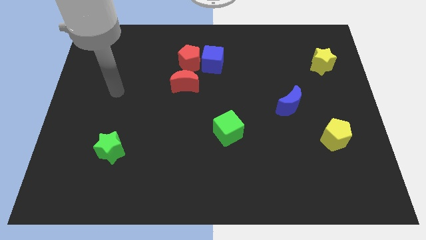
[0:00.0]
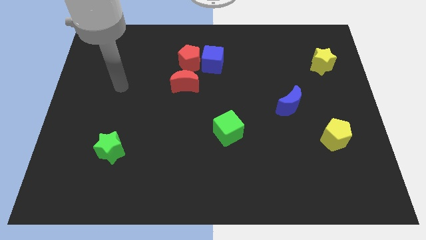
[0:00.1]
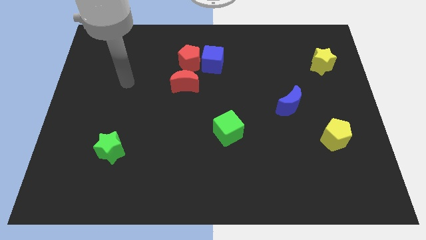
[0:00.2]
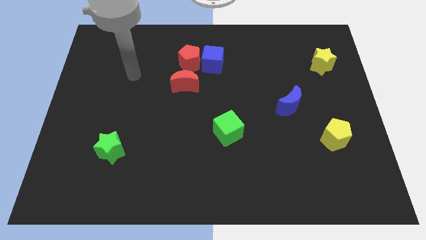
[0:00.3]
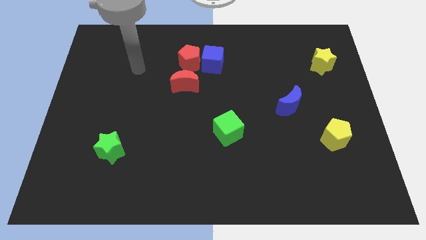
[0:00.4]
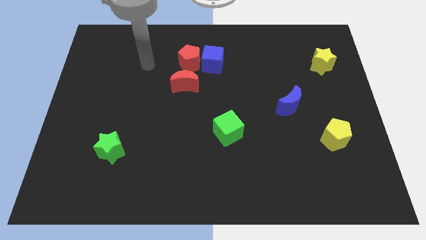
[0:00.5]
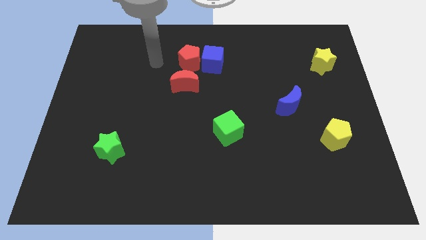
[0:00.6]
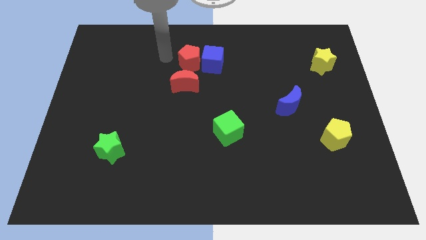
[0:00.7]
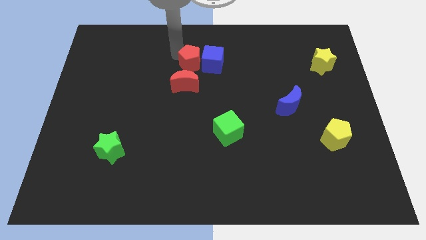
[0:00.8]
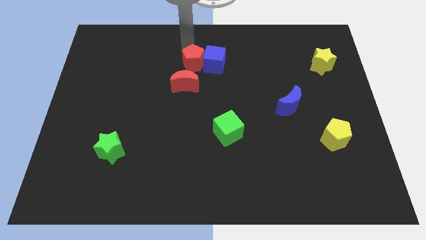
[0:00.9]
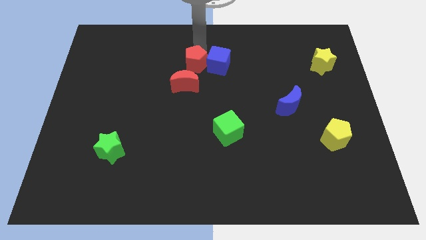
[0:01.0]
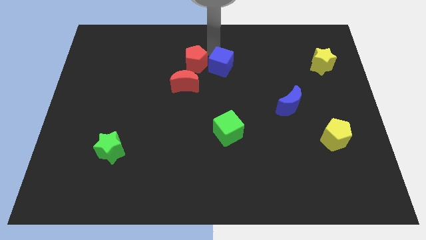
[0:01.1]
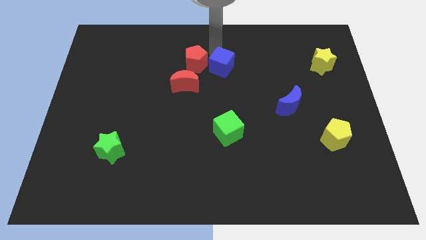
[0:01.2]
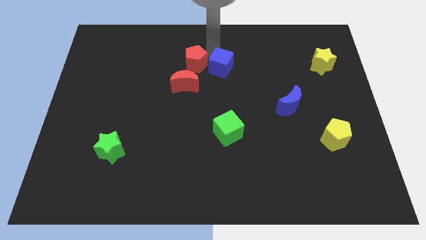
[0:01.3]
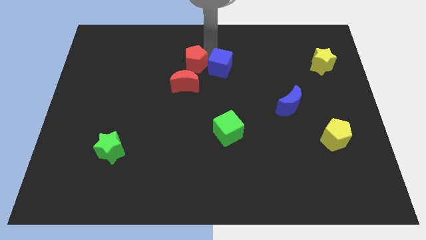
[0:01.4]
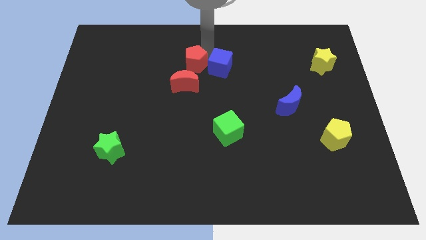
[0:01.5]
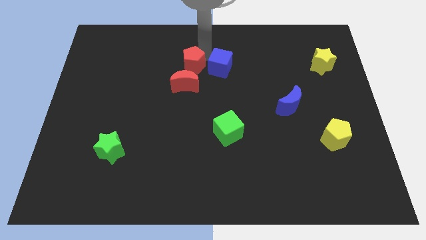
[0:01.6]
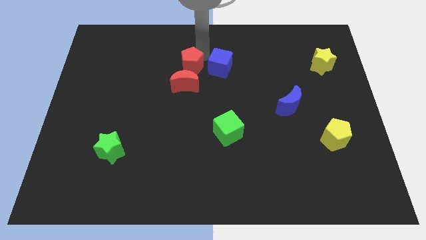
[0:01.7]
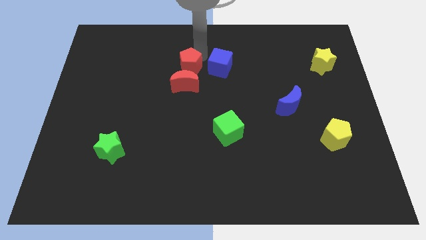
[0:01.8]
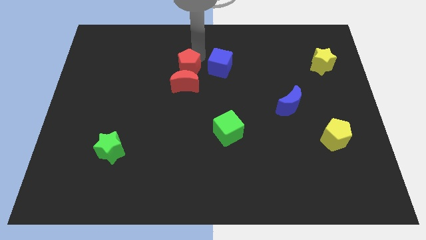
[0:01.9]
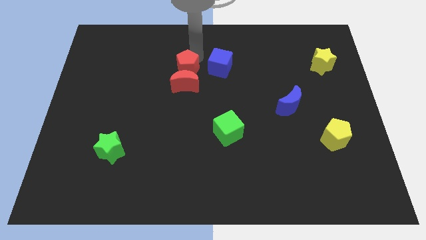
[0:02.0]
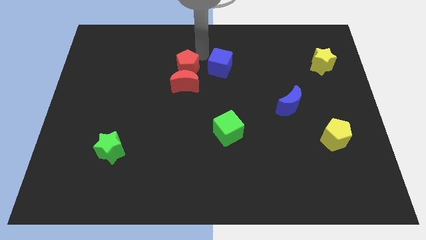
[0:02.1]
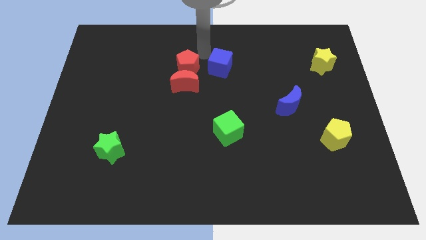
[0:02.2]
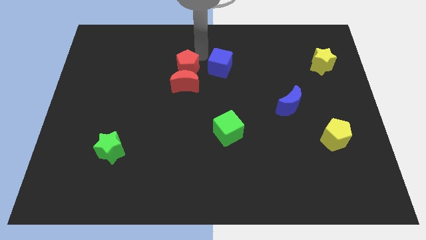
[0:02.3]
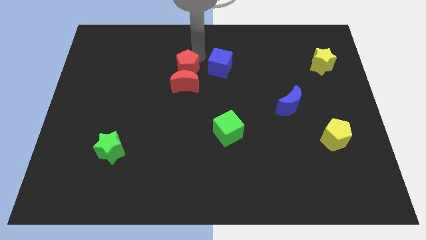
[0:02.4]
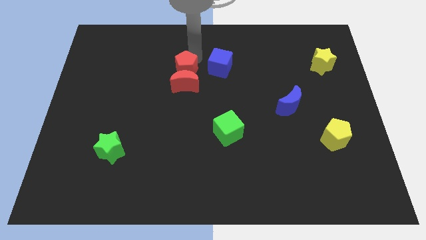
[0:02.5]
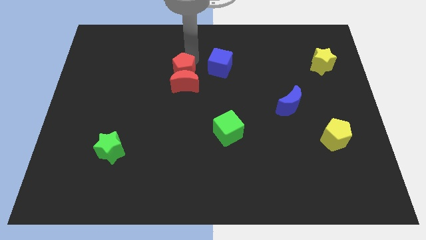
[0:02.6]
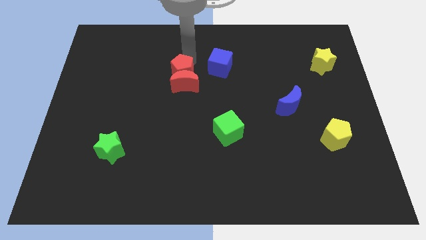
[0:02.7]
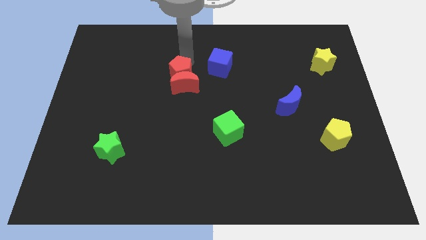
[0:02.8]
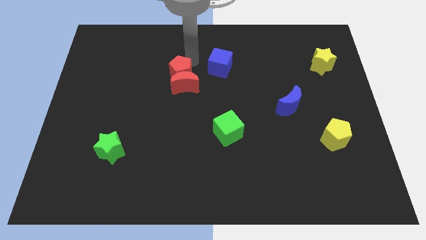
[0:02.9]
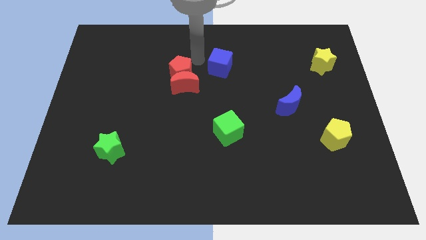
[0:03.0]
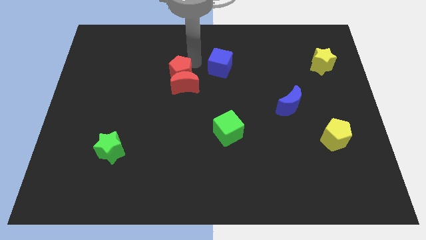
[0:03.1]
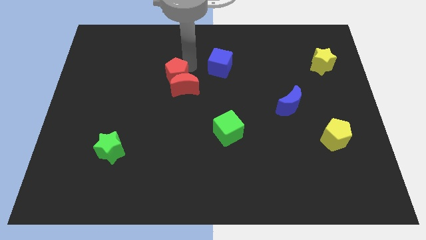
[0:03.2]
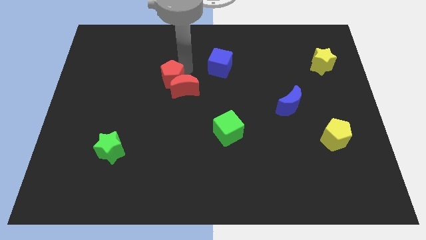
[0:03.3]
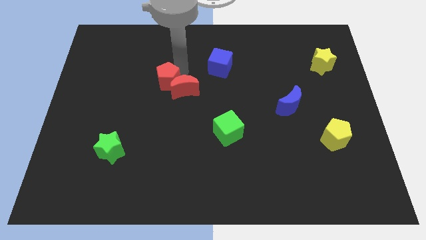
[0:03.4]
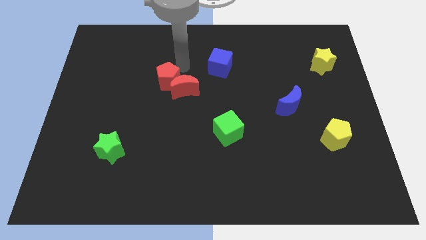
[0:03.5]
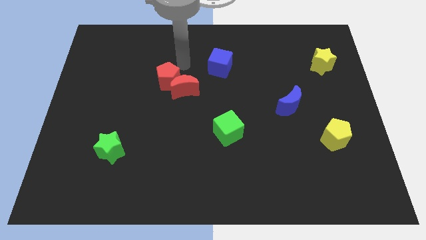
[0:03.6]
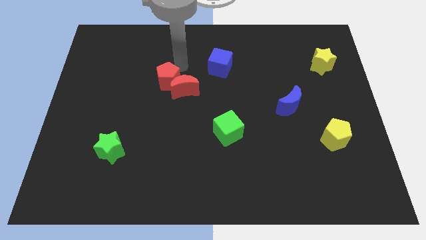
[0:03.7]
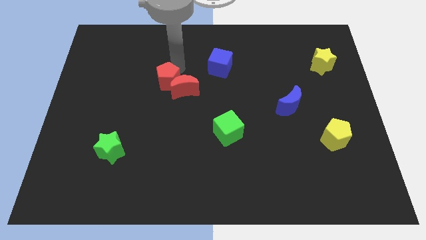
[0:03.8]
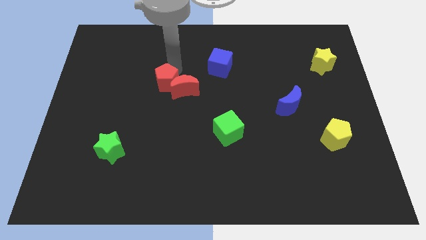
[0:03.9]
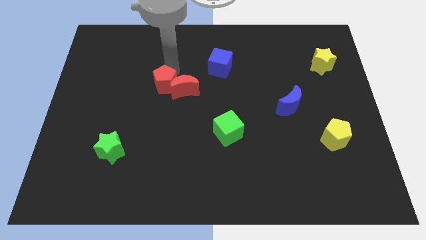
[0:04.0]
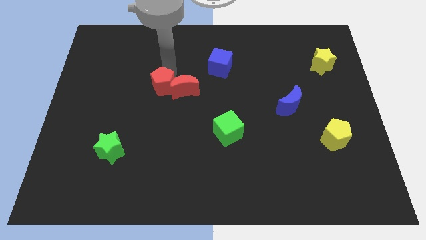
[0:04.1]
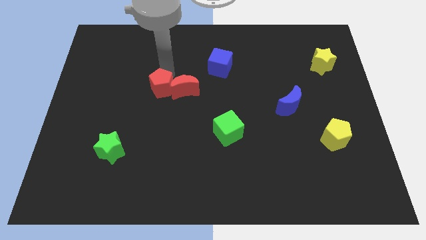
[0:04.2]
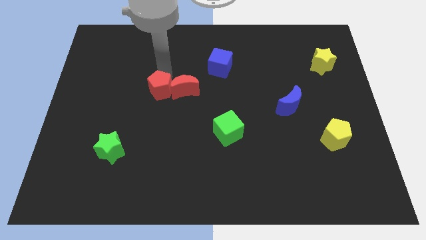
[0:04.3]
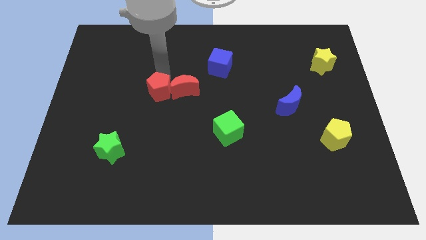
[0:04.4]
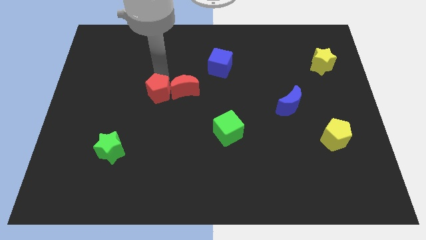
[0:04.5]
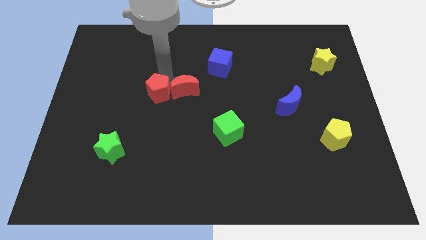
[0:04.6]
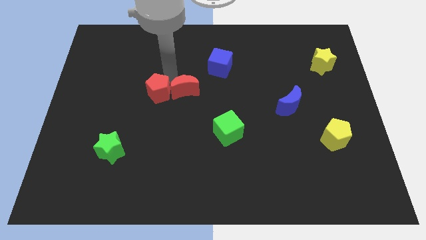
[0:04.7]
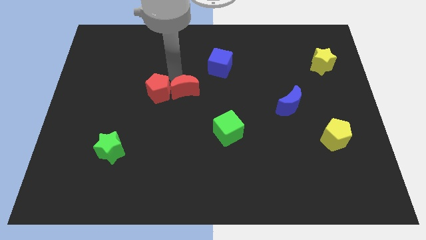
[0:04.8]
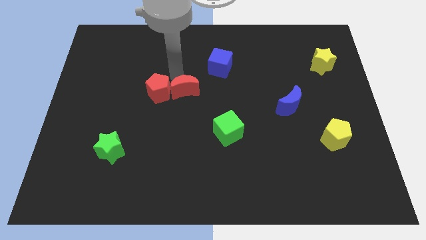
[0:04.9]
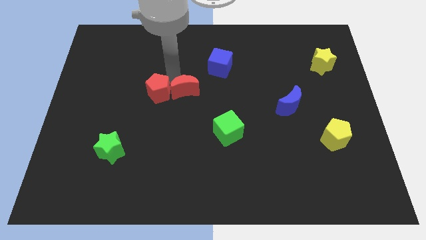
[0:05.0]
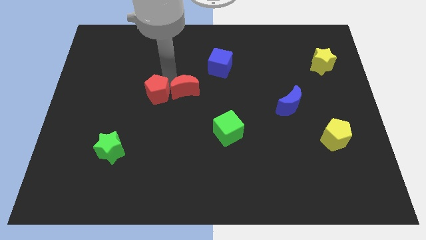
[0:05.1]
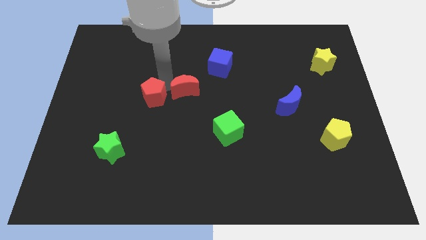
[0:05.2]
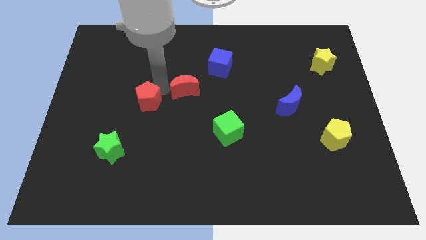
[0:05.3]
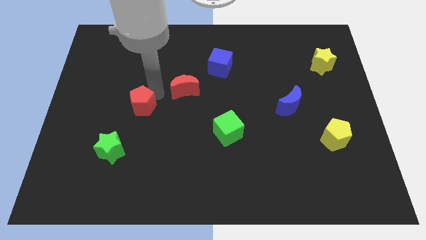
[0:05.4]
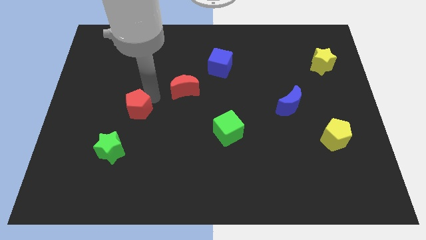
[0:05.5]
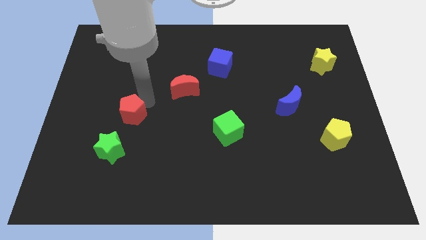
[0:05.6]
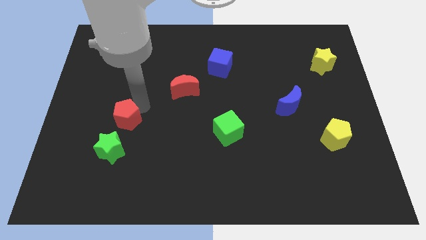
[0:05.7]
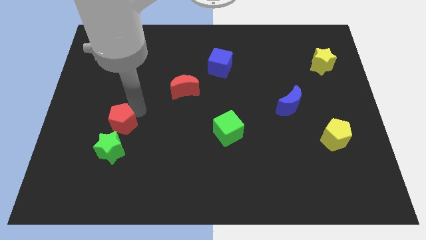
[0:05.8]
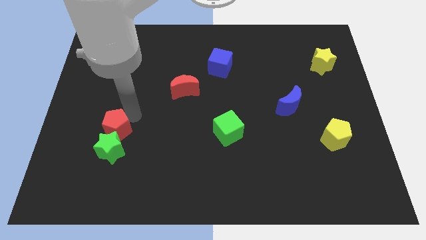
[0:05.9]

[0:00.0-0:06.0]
move the red pentagon diagonally up and to the left of the green star

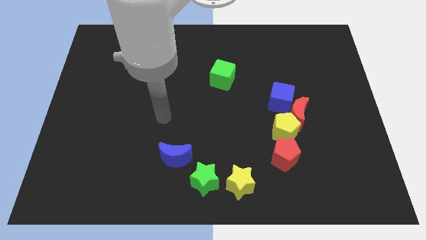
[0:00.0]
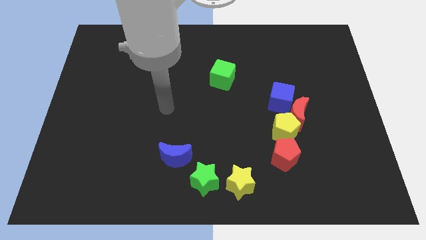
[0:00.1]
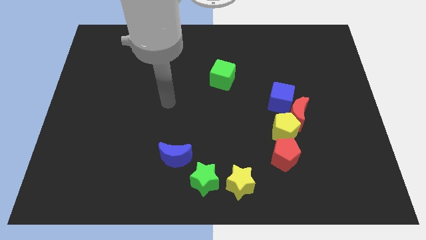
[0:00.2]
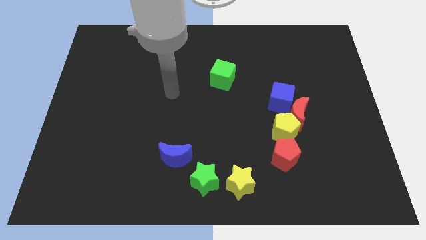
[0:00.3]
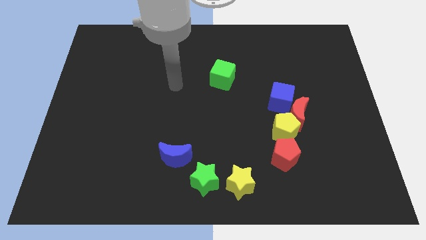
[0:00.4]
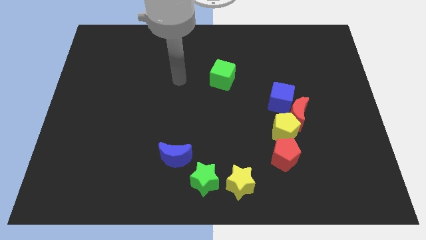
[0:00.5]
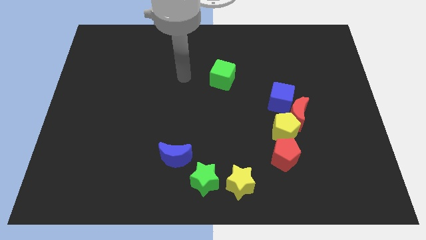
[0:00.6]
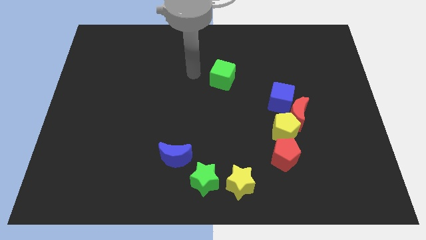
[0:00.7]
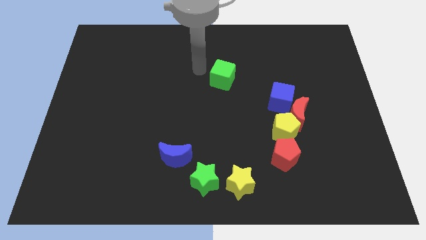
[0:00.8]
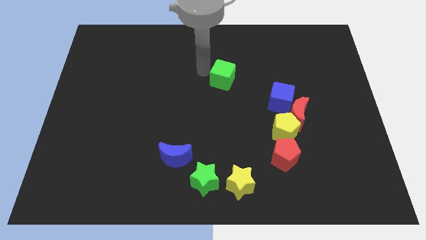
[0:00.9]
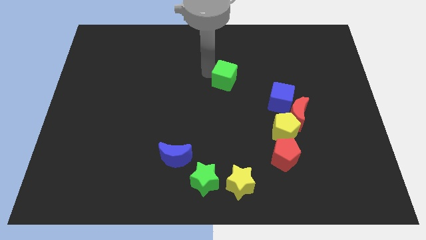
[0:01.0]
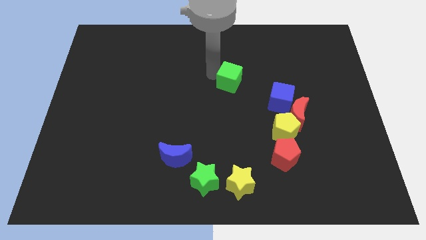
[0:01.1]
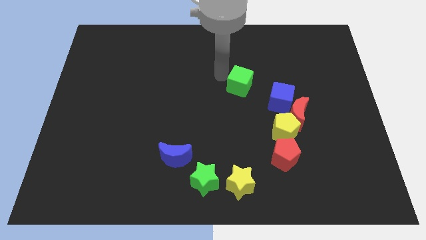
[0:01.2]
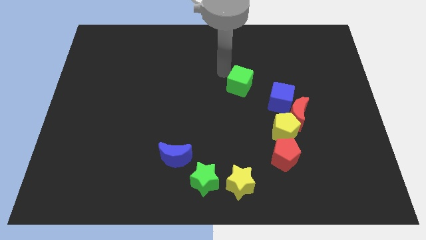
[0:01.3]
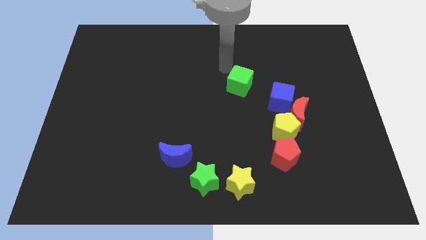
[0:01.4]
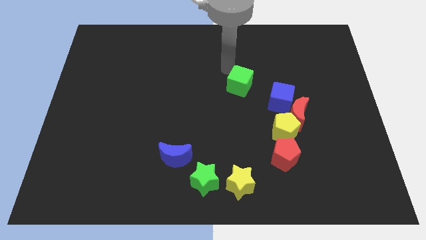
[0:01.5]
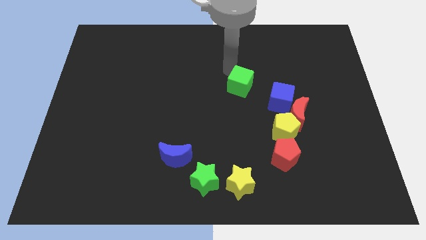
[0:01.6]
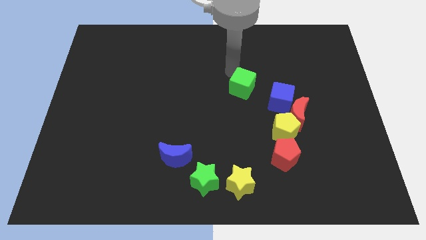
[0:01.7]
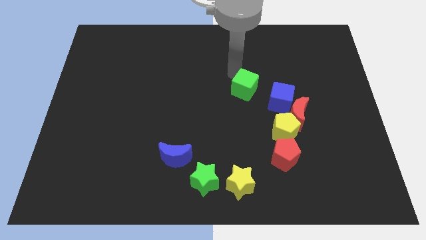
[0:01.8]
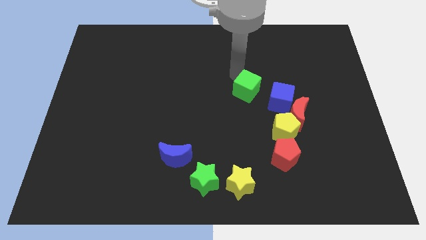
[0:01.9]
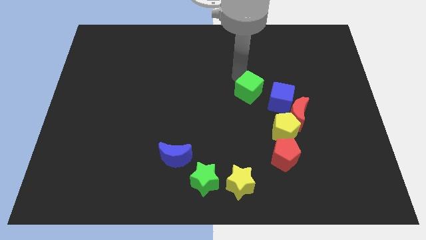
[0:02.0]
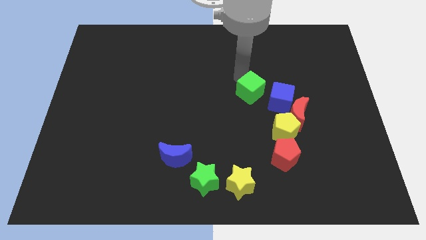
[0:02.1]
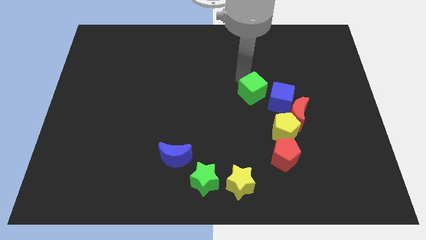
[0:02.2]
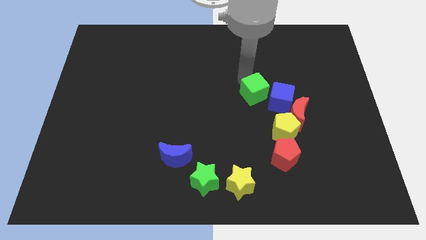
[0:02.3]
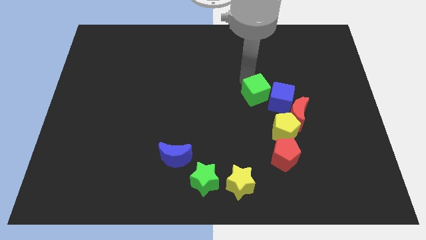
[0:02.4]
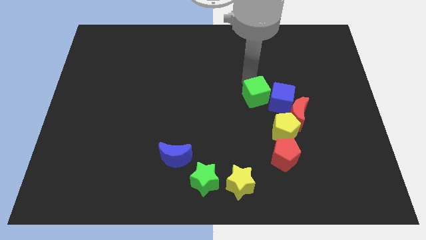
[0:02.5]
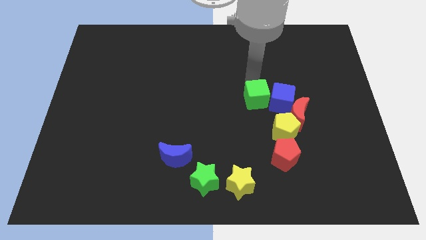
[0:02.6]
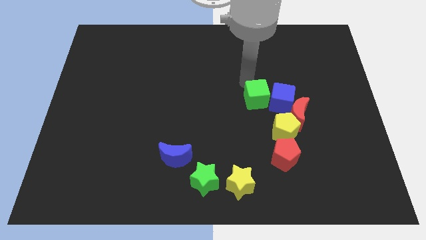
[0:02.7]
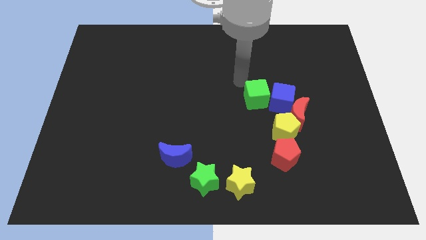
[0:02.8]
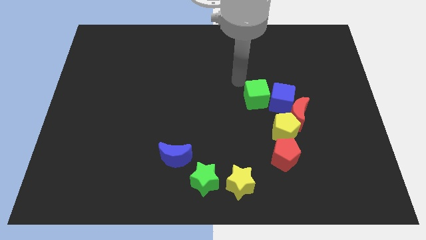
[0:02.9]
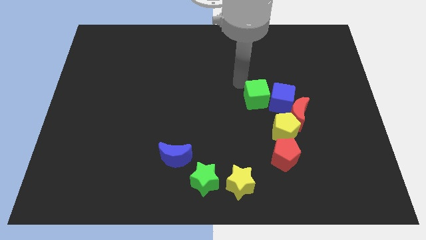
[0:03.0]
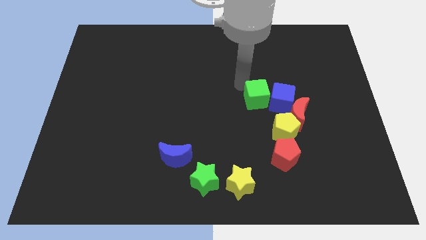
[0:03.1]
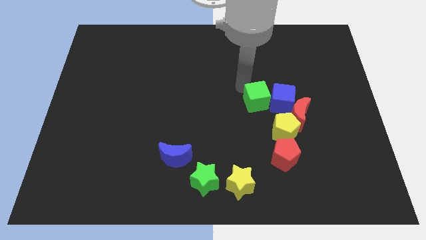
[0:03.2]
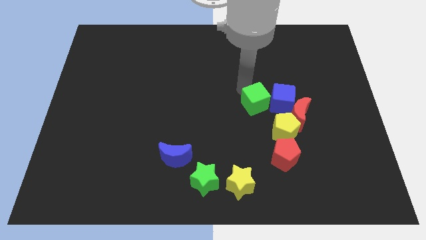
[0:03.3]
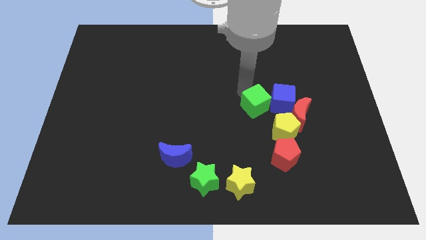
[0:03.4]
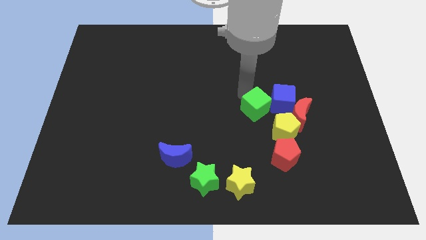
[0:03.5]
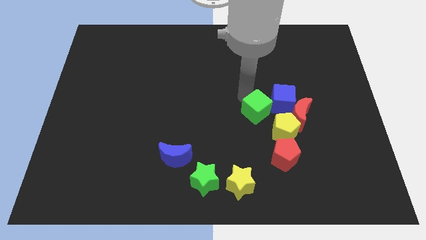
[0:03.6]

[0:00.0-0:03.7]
push the green cube above the red pentagon
